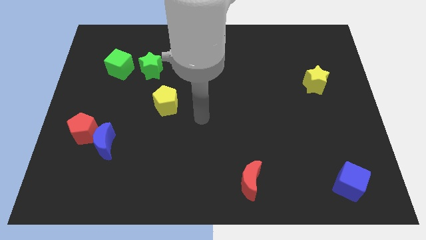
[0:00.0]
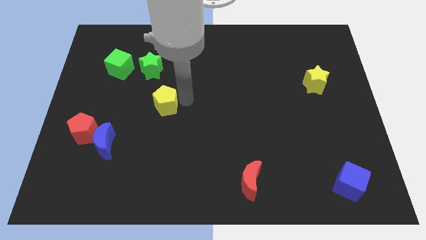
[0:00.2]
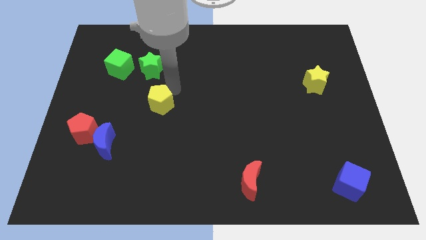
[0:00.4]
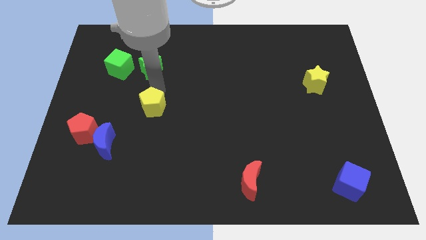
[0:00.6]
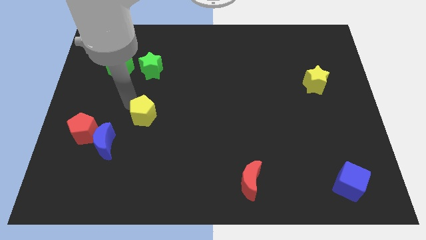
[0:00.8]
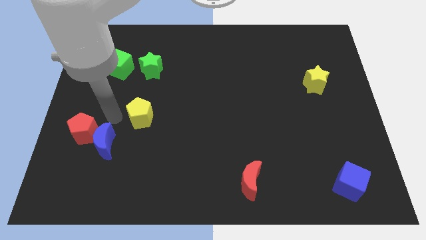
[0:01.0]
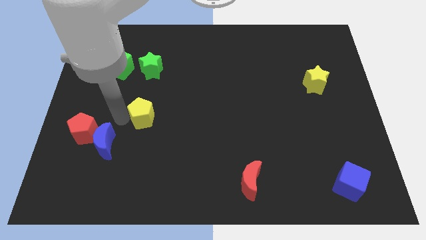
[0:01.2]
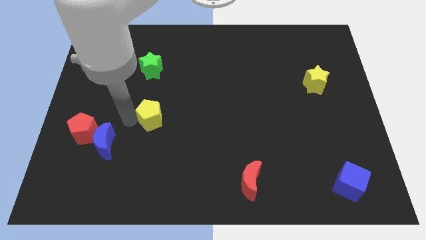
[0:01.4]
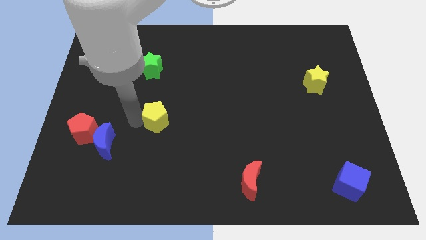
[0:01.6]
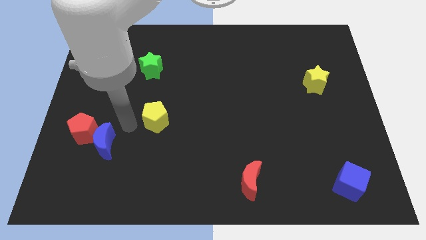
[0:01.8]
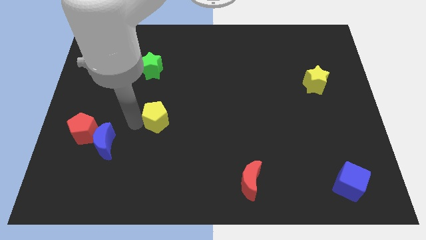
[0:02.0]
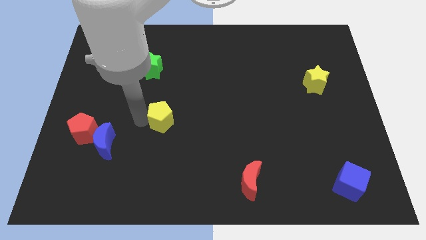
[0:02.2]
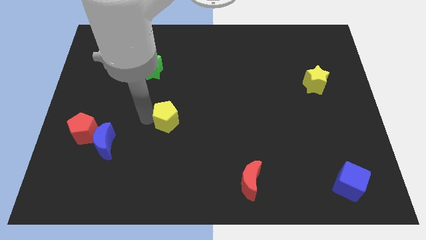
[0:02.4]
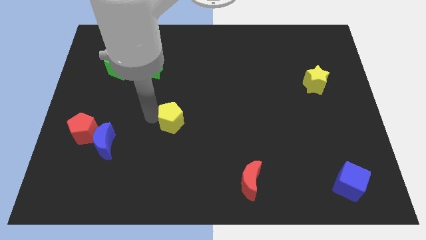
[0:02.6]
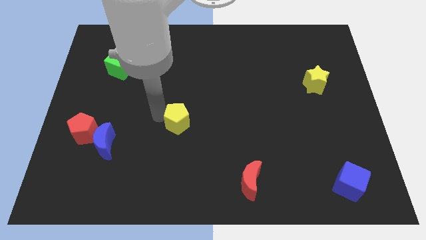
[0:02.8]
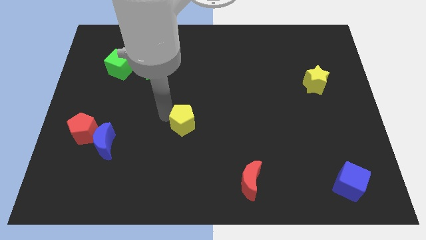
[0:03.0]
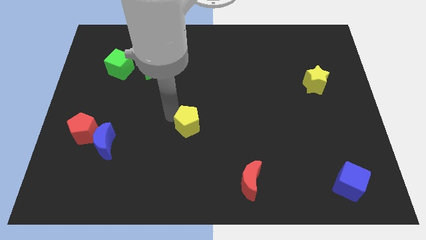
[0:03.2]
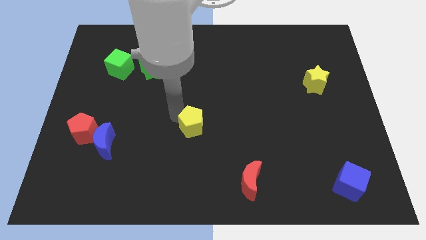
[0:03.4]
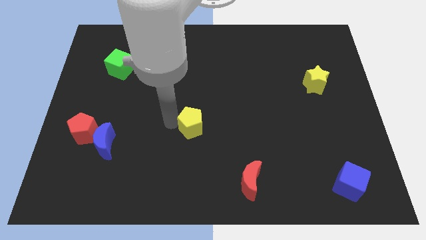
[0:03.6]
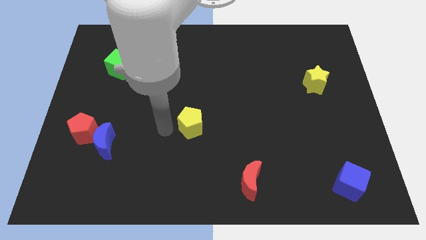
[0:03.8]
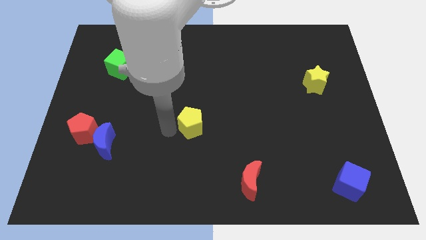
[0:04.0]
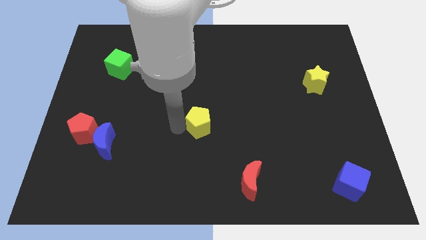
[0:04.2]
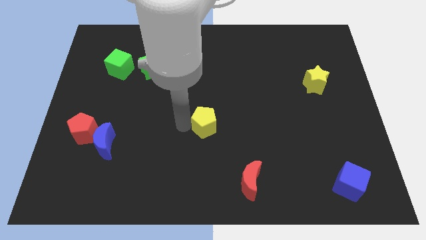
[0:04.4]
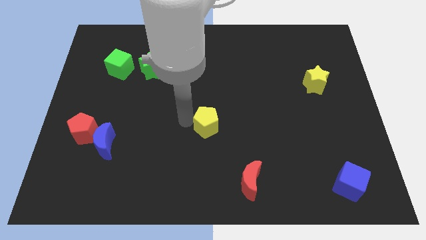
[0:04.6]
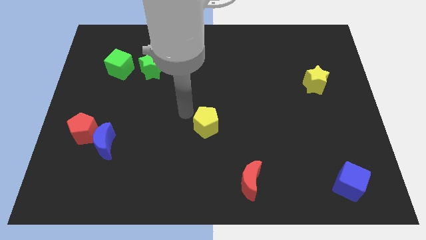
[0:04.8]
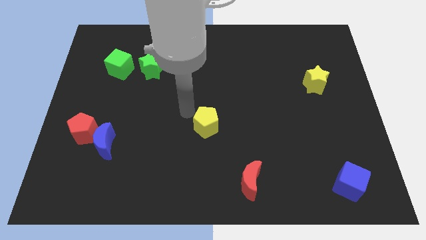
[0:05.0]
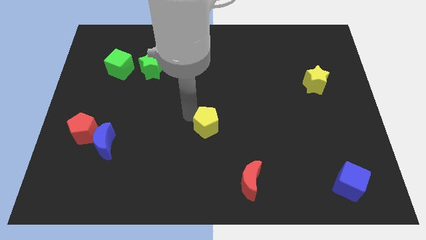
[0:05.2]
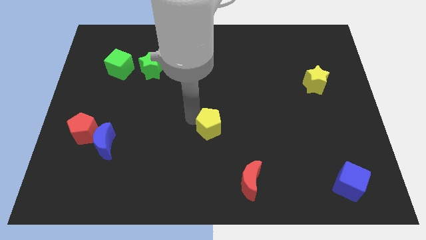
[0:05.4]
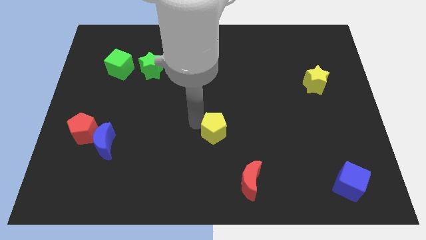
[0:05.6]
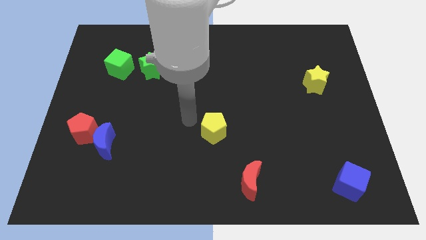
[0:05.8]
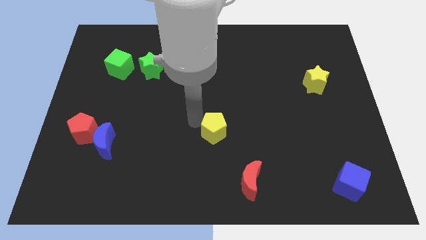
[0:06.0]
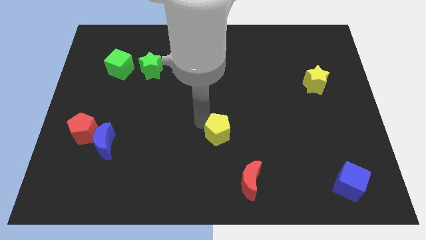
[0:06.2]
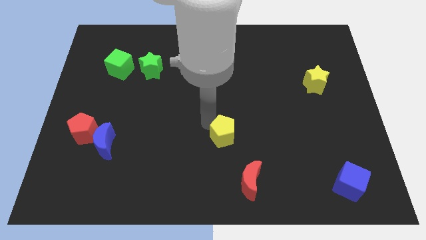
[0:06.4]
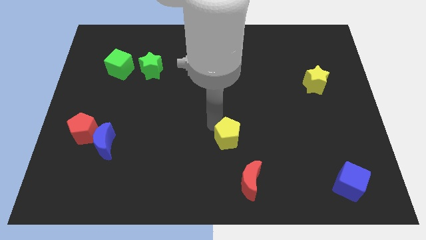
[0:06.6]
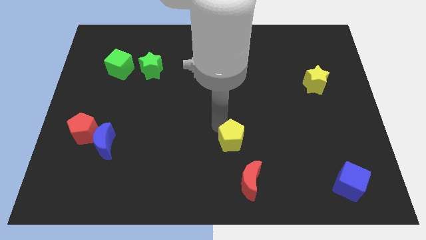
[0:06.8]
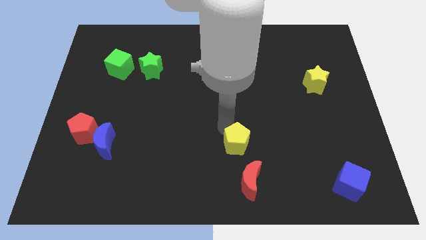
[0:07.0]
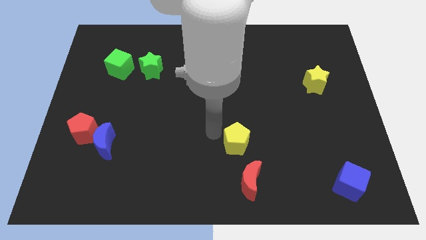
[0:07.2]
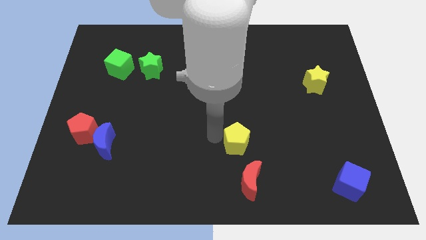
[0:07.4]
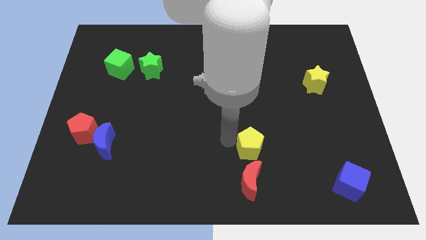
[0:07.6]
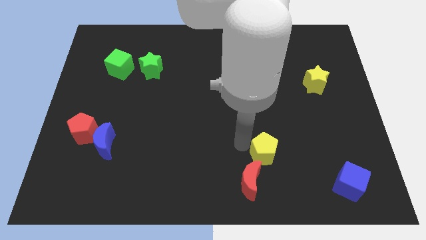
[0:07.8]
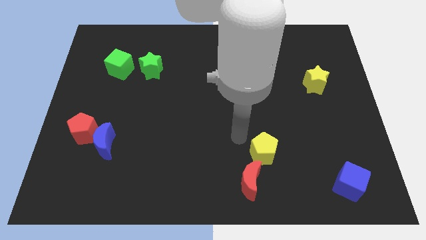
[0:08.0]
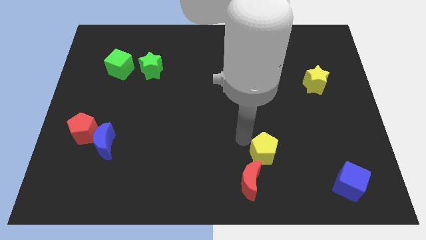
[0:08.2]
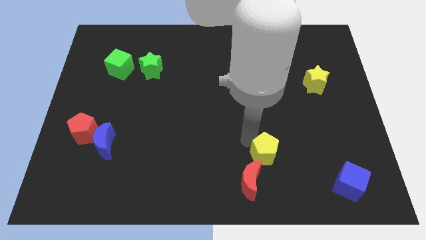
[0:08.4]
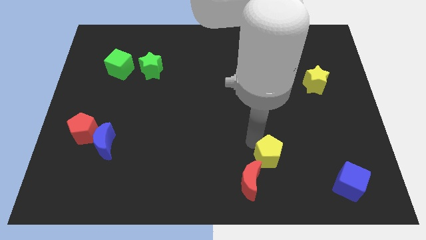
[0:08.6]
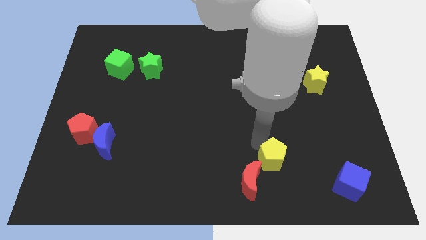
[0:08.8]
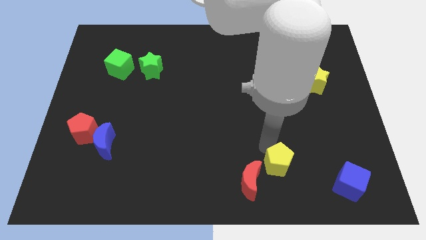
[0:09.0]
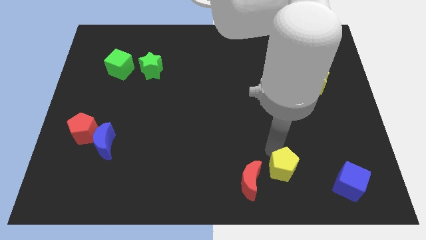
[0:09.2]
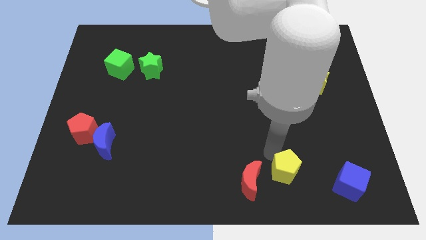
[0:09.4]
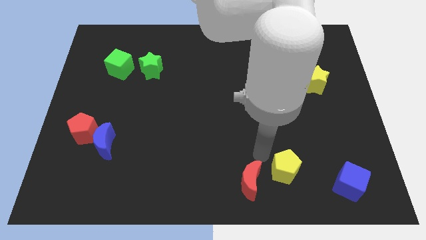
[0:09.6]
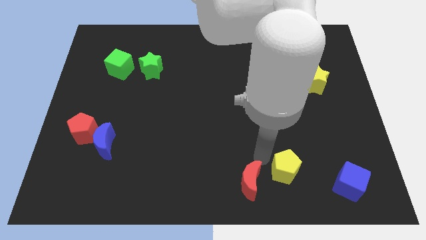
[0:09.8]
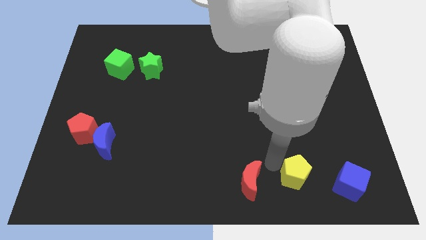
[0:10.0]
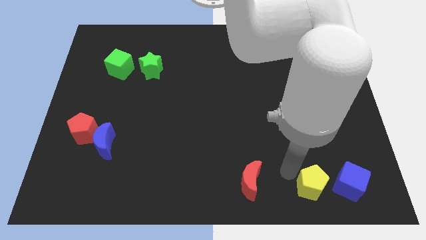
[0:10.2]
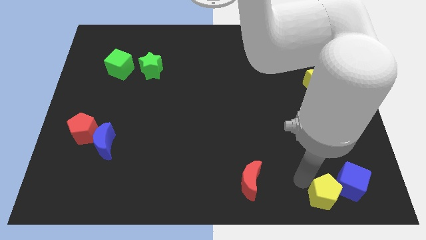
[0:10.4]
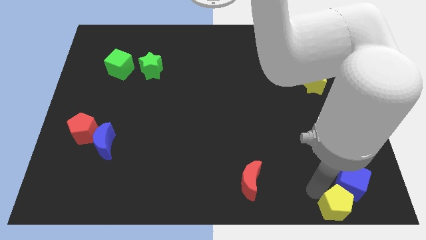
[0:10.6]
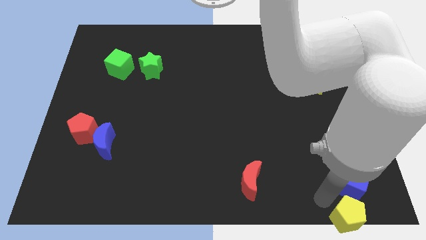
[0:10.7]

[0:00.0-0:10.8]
move the yellow pentagon to the bottom right corner
